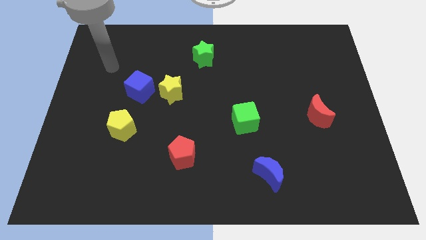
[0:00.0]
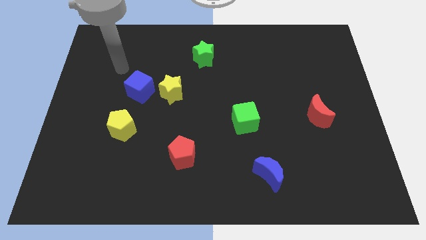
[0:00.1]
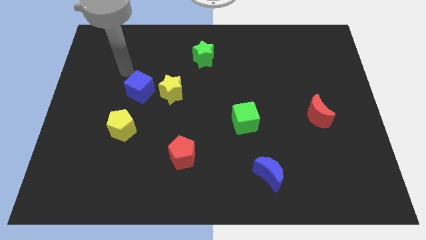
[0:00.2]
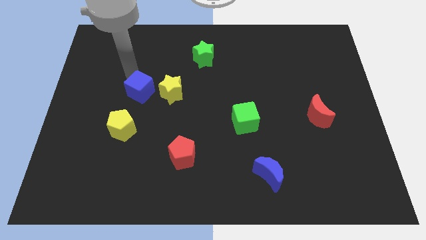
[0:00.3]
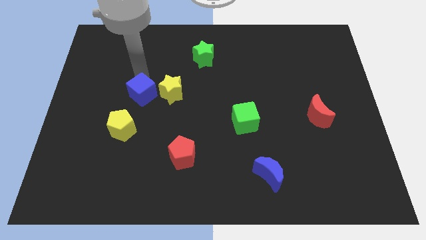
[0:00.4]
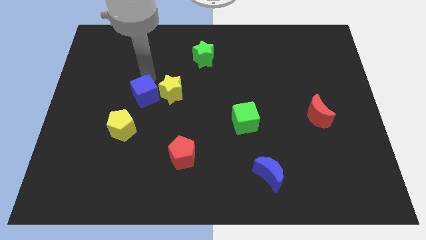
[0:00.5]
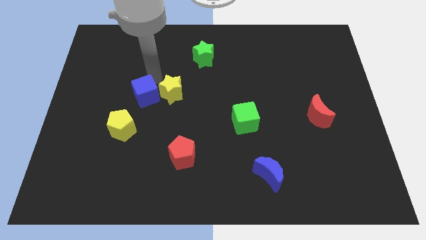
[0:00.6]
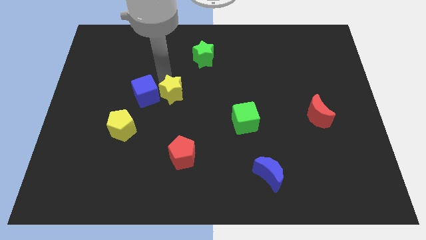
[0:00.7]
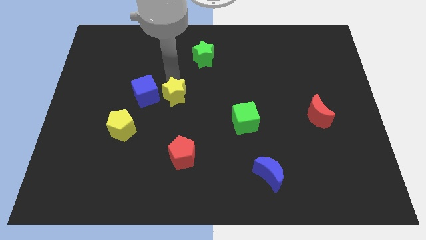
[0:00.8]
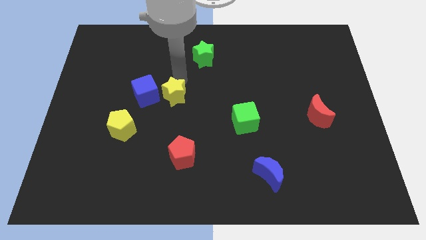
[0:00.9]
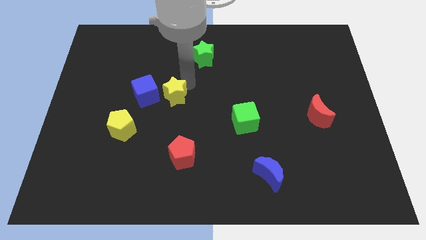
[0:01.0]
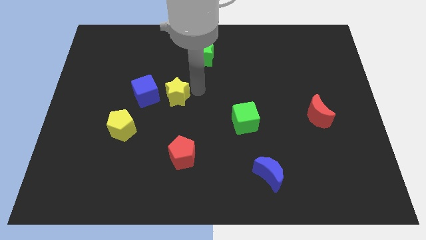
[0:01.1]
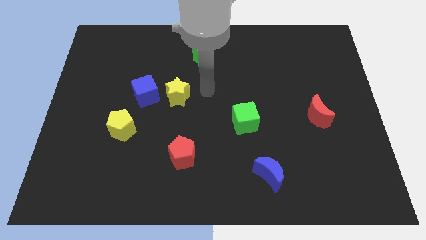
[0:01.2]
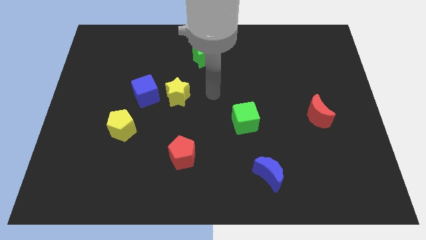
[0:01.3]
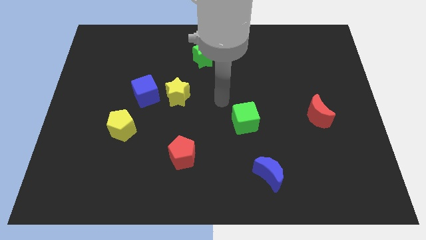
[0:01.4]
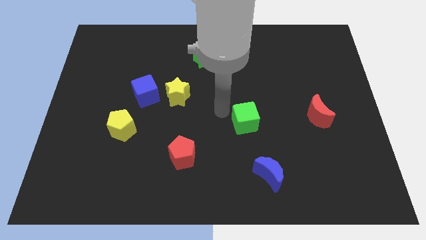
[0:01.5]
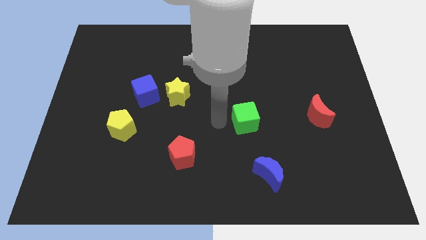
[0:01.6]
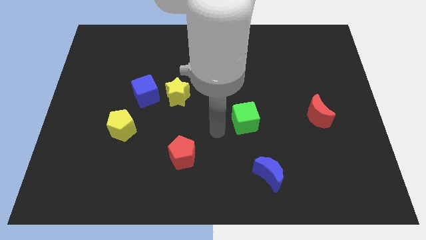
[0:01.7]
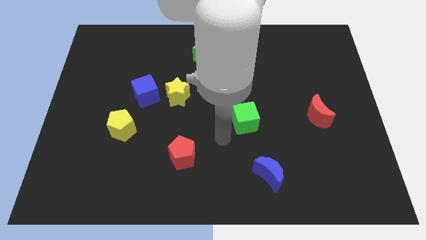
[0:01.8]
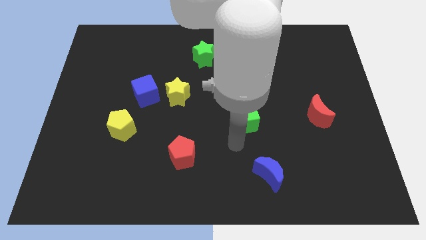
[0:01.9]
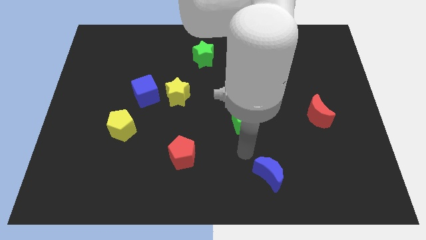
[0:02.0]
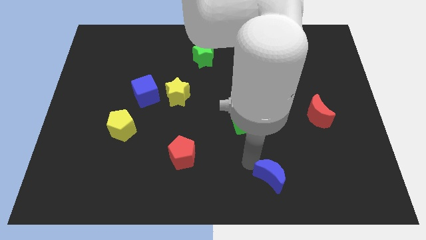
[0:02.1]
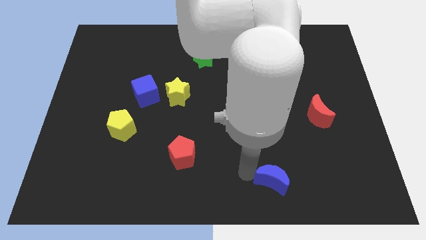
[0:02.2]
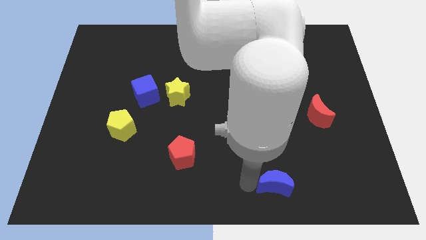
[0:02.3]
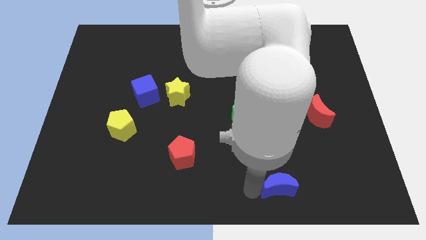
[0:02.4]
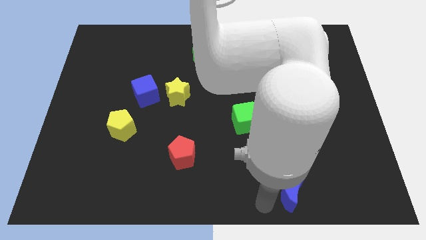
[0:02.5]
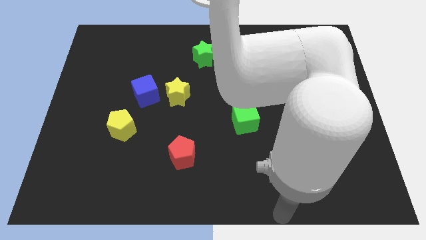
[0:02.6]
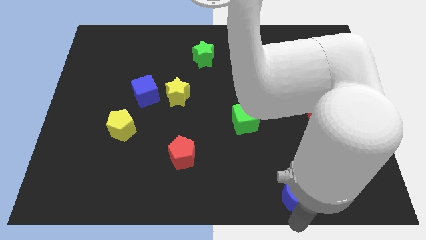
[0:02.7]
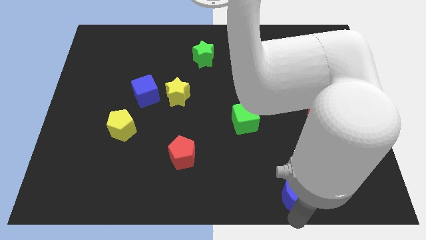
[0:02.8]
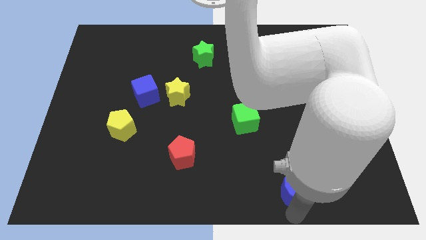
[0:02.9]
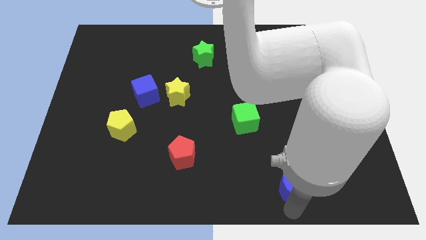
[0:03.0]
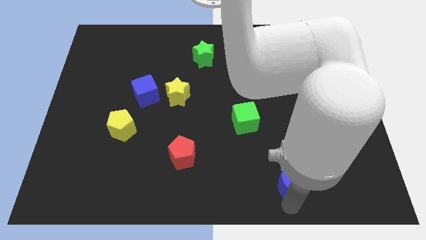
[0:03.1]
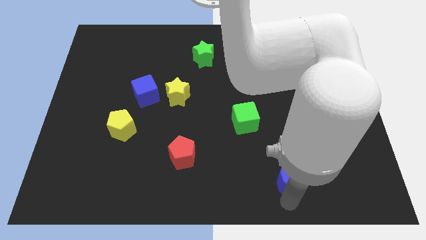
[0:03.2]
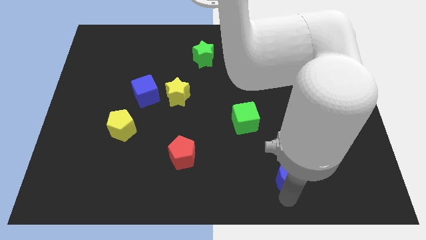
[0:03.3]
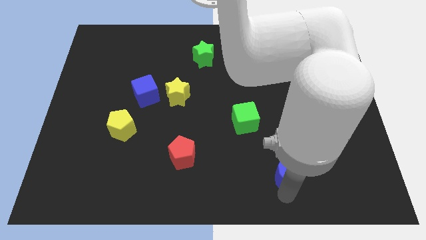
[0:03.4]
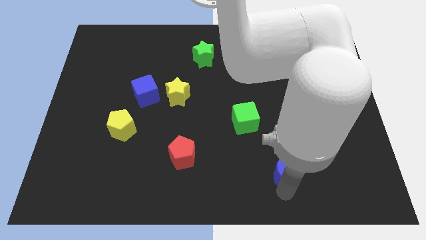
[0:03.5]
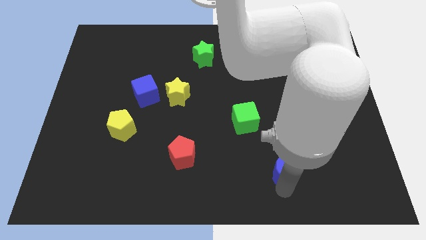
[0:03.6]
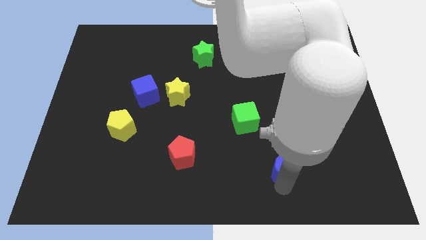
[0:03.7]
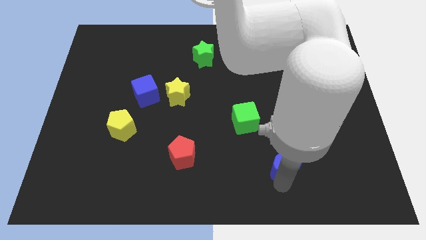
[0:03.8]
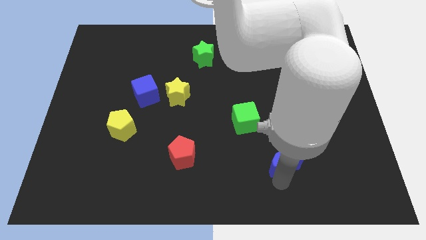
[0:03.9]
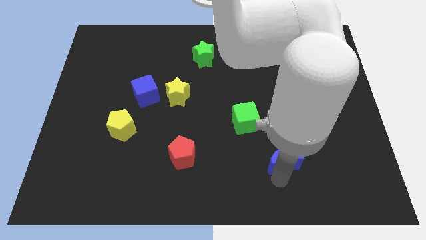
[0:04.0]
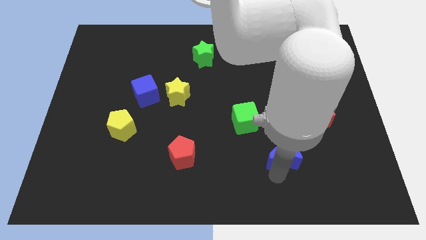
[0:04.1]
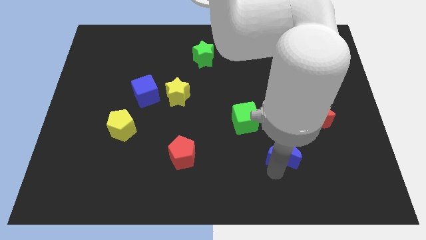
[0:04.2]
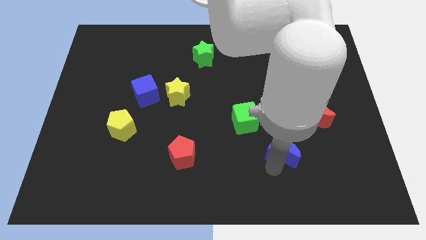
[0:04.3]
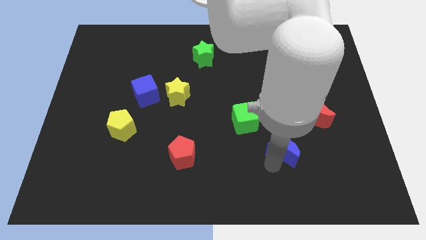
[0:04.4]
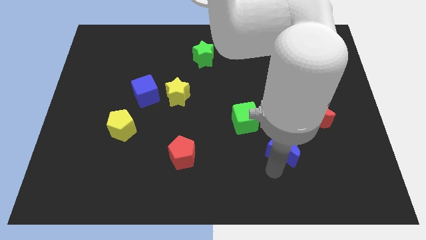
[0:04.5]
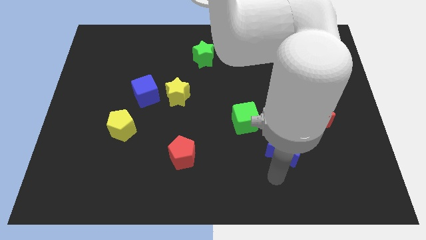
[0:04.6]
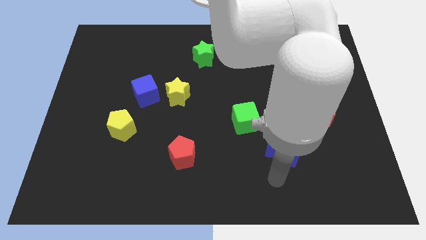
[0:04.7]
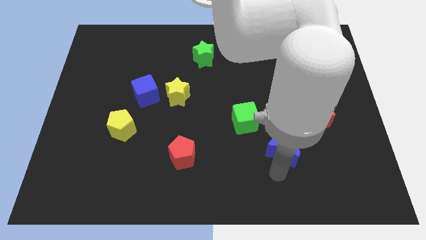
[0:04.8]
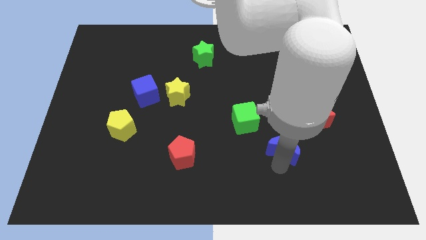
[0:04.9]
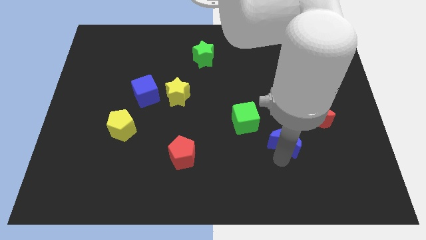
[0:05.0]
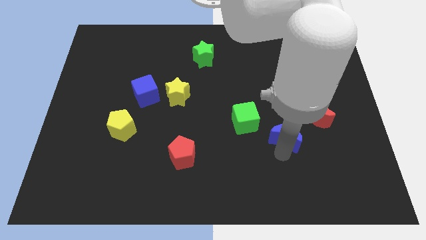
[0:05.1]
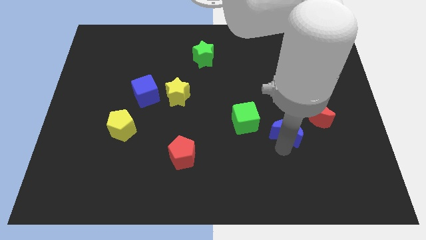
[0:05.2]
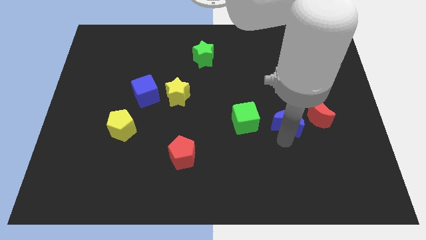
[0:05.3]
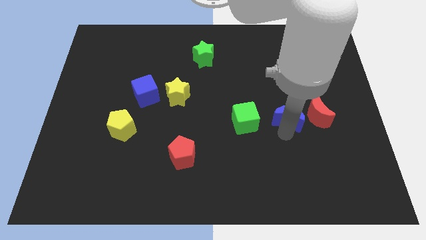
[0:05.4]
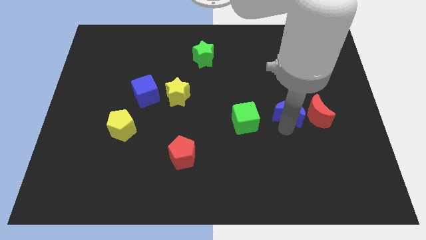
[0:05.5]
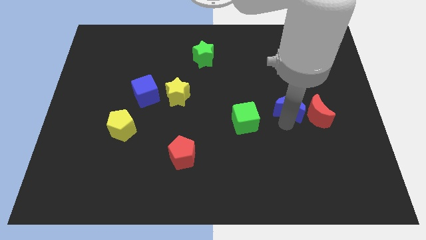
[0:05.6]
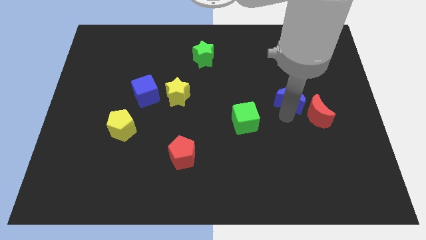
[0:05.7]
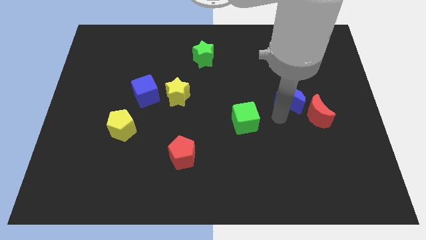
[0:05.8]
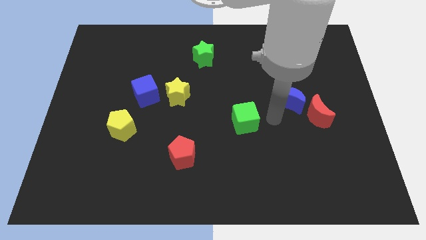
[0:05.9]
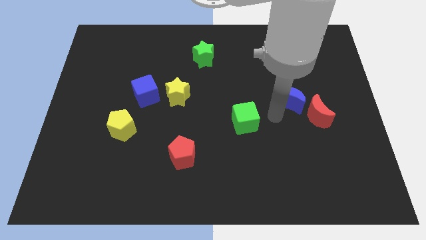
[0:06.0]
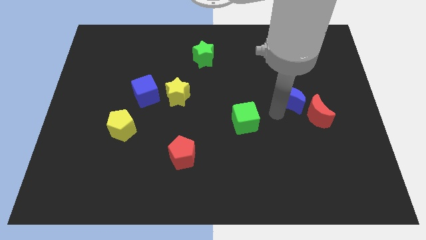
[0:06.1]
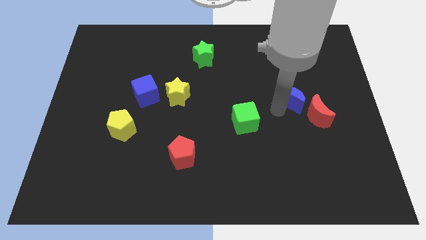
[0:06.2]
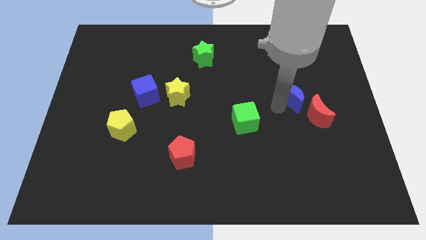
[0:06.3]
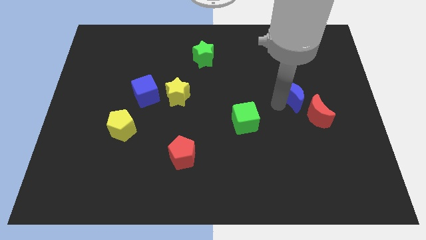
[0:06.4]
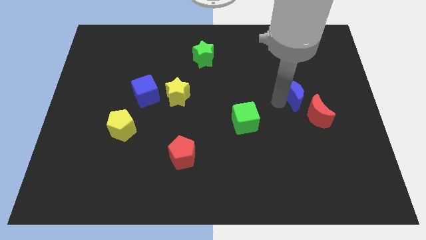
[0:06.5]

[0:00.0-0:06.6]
move the blue moon to the top side of the red moon

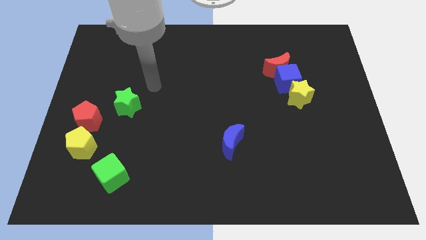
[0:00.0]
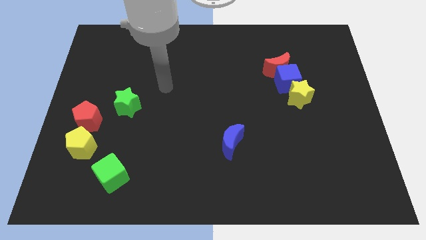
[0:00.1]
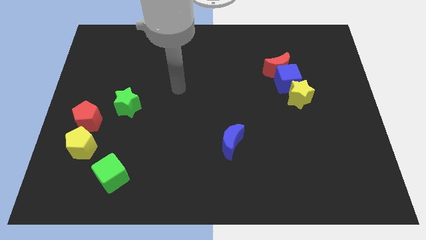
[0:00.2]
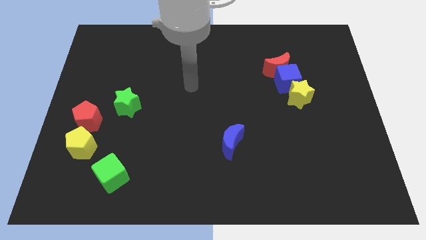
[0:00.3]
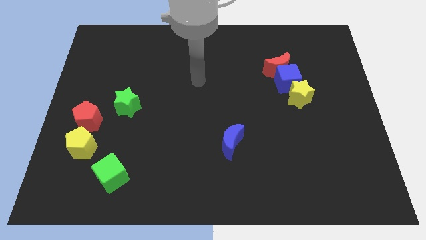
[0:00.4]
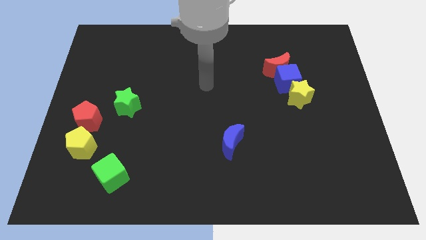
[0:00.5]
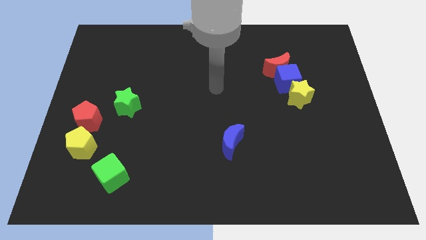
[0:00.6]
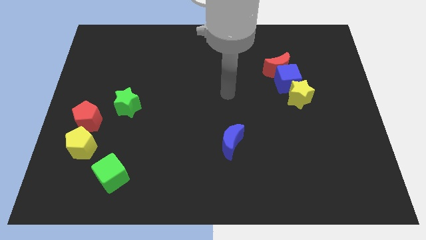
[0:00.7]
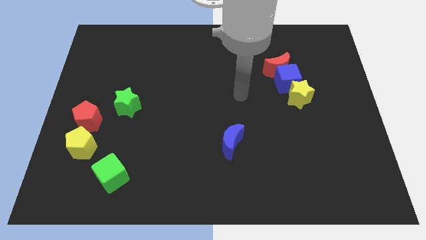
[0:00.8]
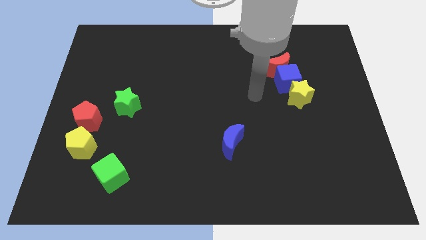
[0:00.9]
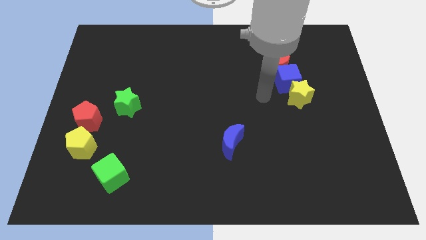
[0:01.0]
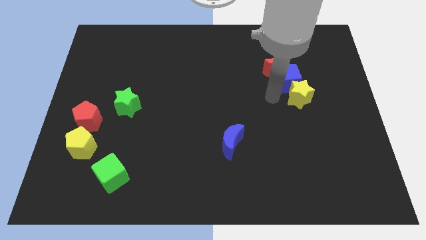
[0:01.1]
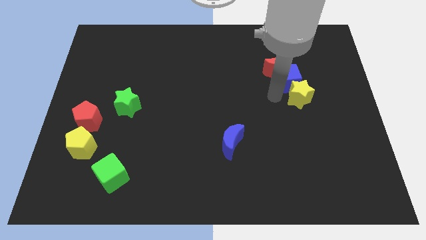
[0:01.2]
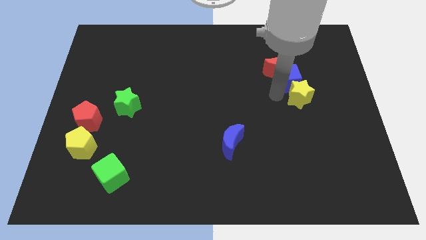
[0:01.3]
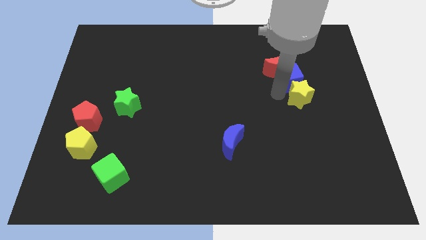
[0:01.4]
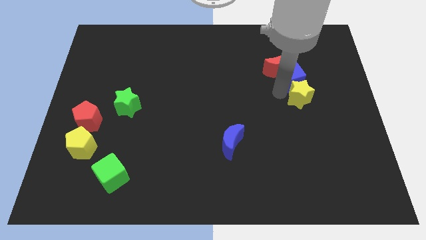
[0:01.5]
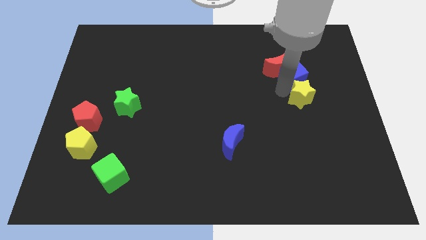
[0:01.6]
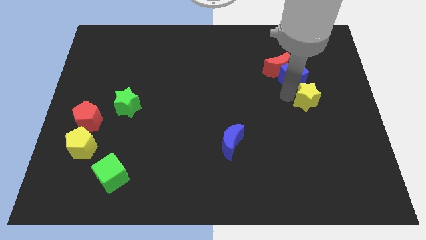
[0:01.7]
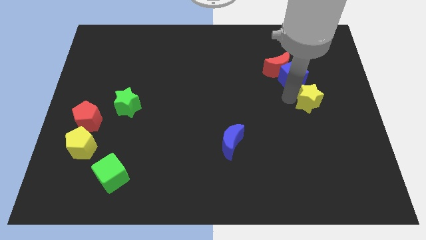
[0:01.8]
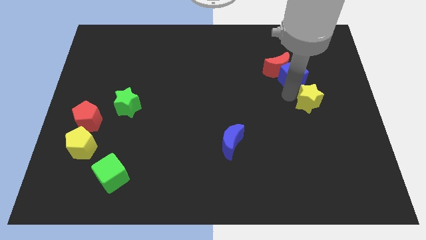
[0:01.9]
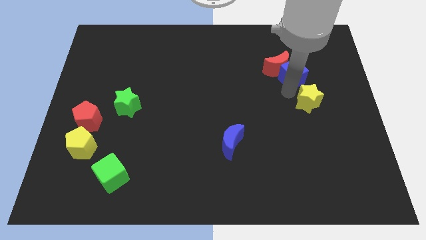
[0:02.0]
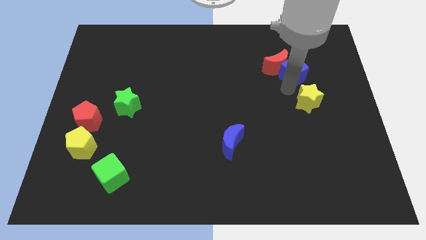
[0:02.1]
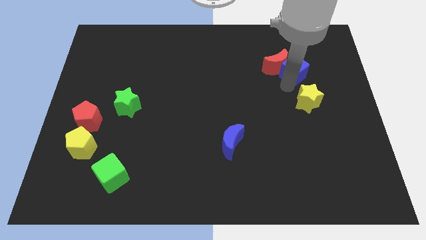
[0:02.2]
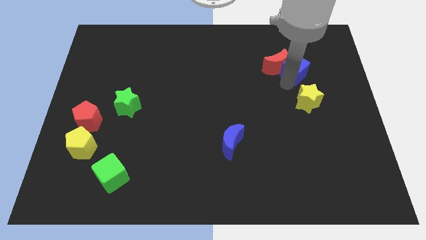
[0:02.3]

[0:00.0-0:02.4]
push the blue cube diagonally up and to the right of the red moon
